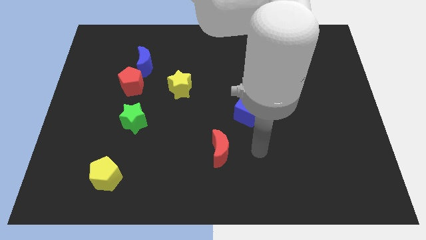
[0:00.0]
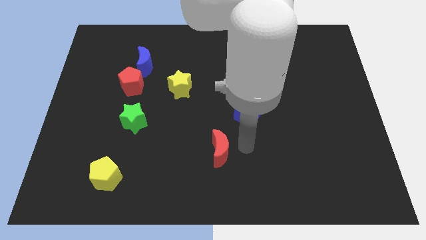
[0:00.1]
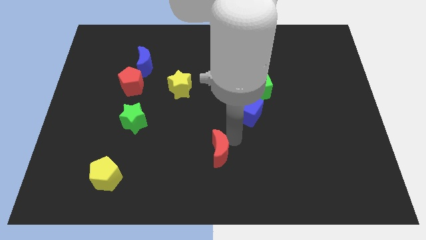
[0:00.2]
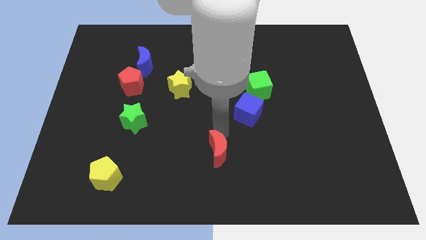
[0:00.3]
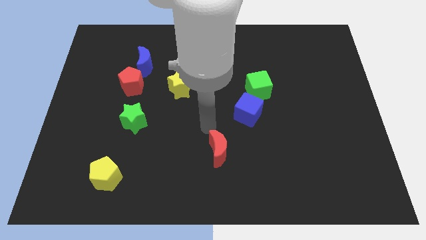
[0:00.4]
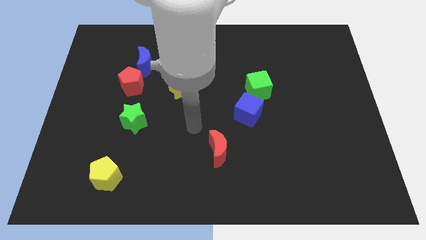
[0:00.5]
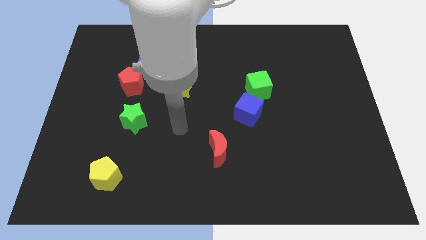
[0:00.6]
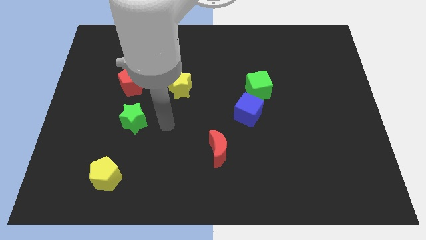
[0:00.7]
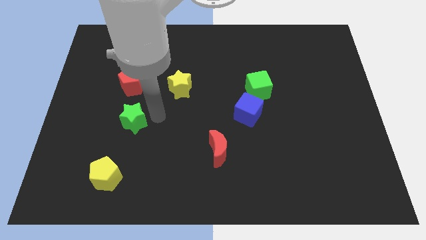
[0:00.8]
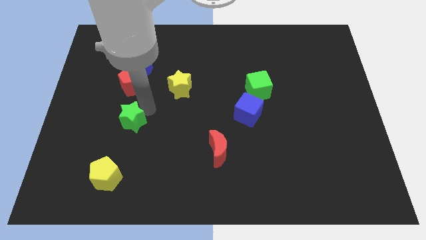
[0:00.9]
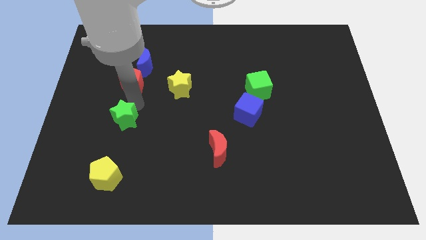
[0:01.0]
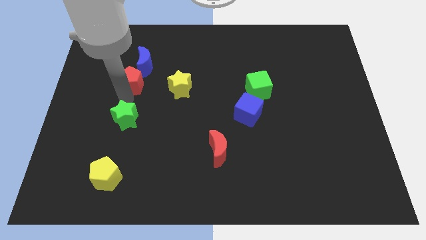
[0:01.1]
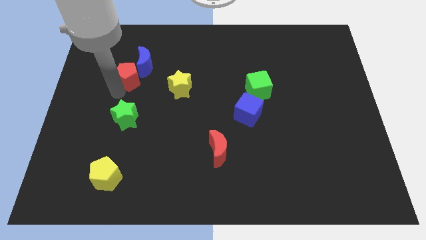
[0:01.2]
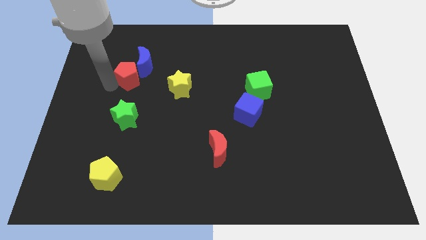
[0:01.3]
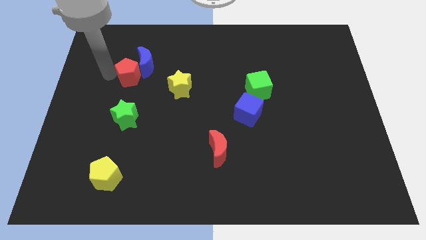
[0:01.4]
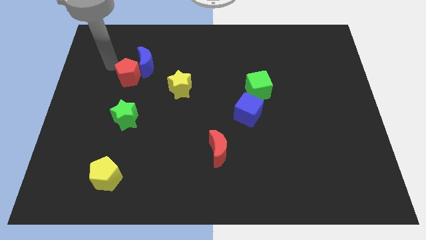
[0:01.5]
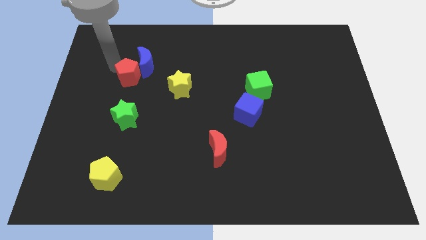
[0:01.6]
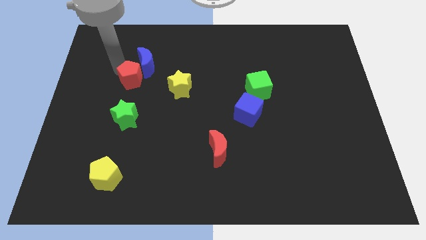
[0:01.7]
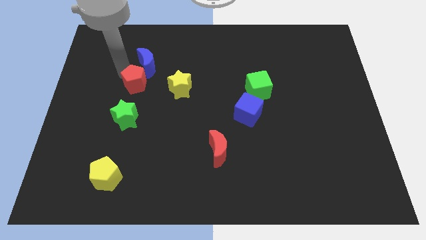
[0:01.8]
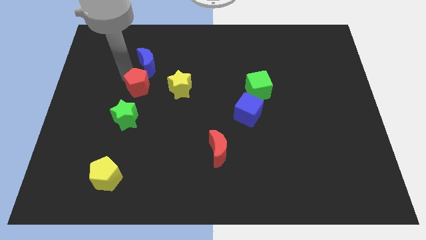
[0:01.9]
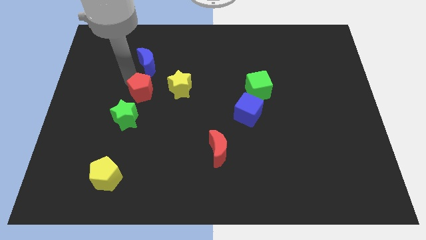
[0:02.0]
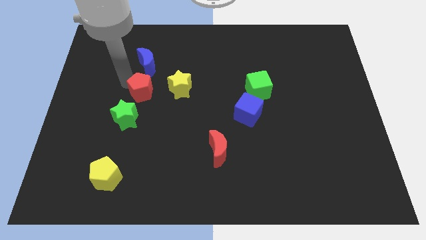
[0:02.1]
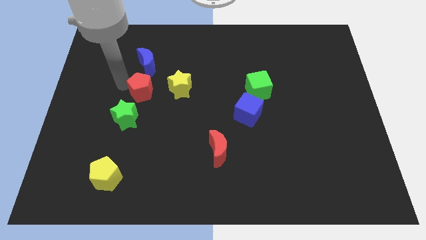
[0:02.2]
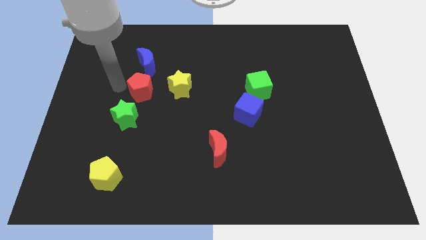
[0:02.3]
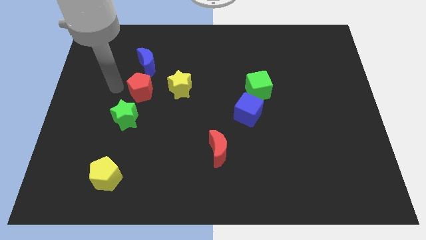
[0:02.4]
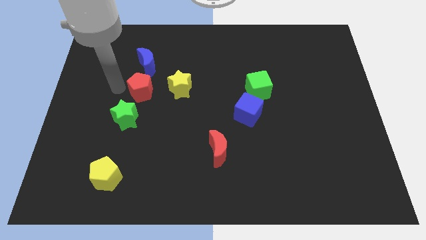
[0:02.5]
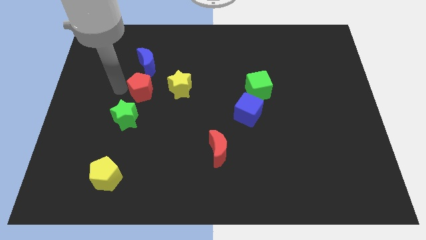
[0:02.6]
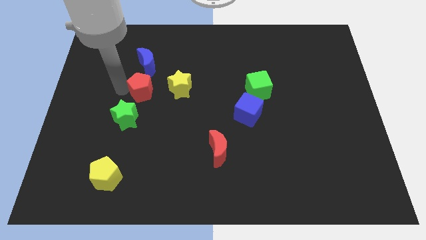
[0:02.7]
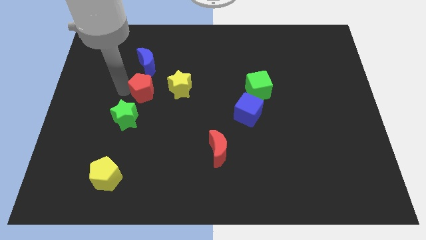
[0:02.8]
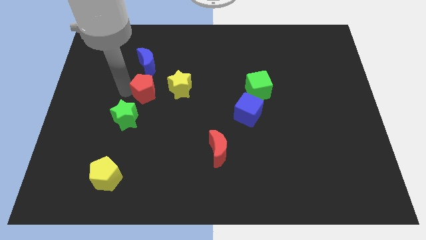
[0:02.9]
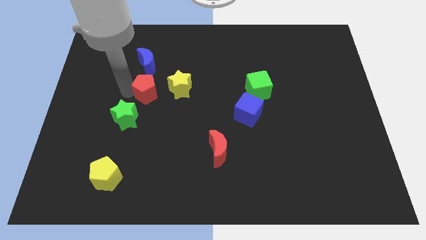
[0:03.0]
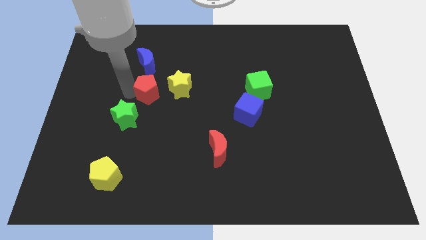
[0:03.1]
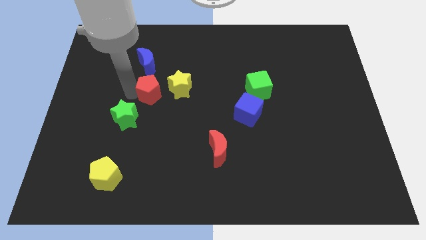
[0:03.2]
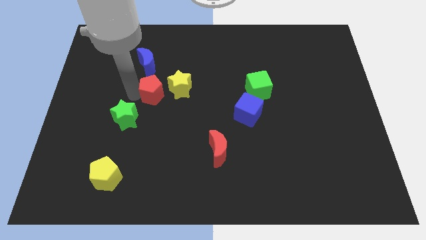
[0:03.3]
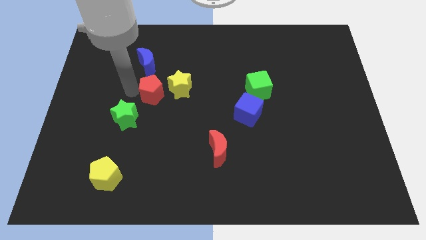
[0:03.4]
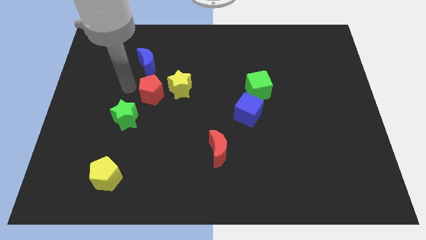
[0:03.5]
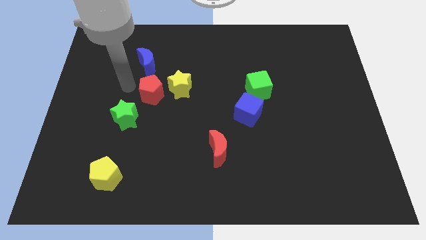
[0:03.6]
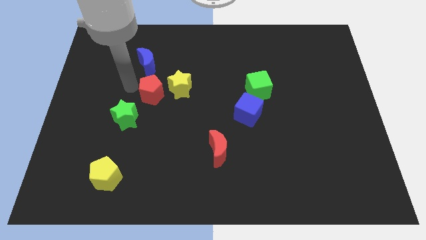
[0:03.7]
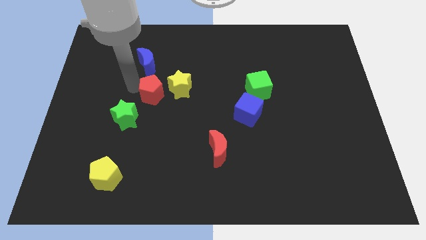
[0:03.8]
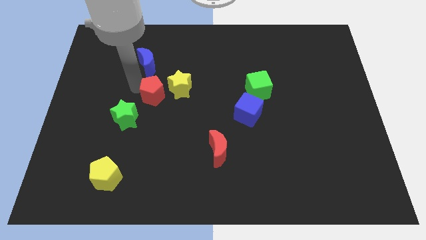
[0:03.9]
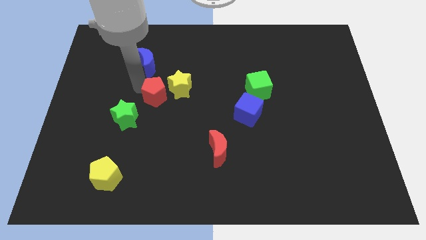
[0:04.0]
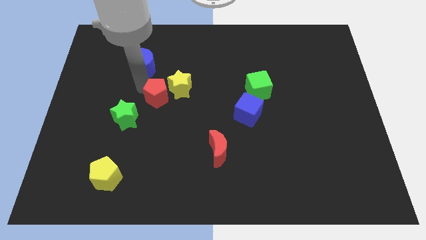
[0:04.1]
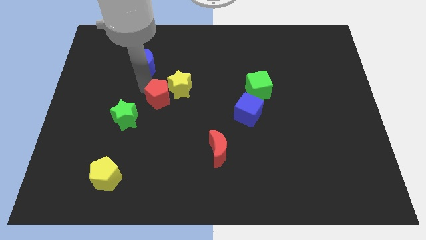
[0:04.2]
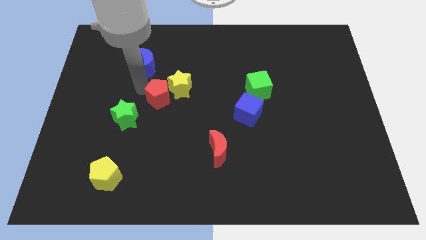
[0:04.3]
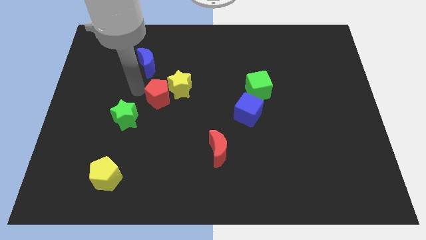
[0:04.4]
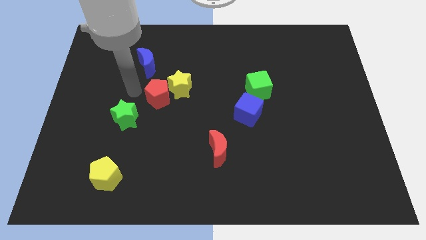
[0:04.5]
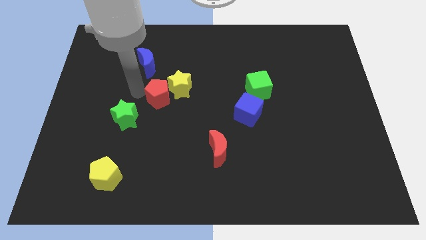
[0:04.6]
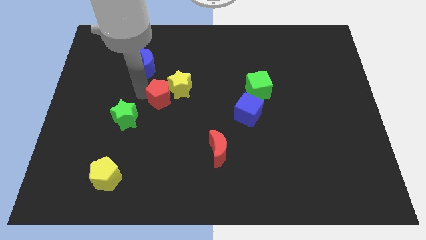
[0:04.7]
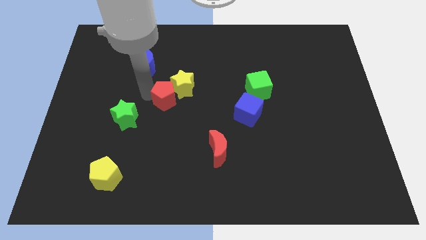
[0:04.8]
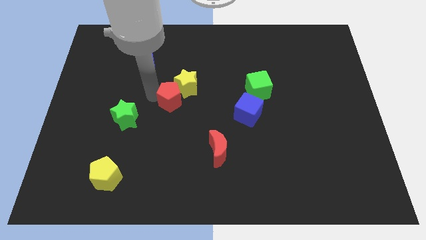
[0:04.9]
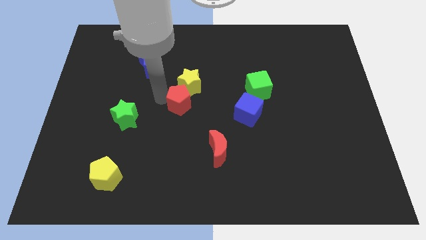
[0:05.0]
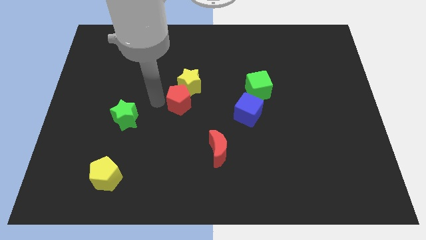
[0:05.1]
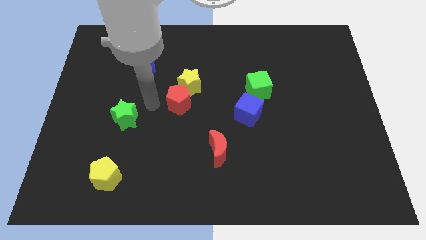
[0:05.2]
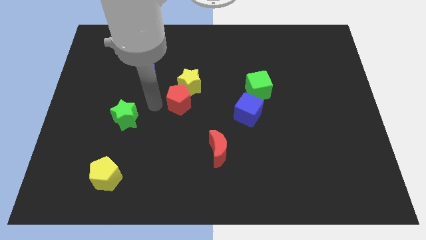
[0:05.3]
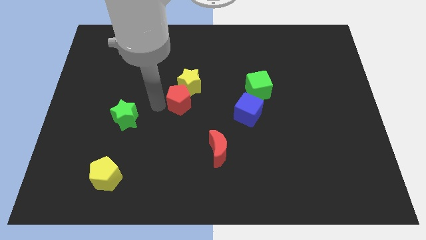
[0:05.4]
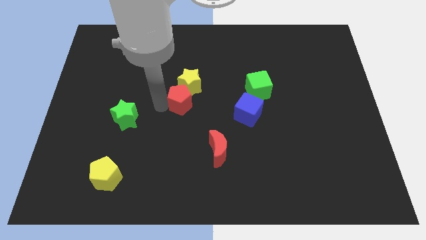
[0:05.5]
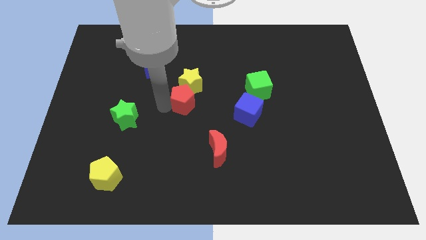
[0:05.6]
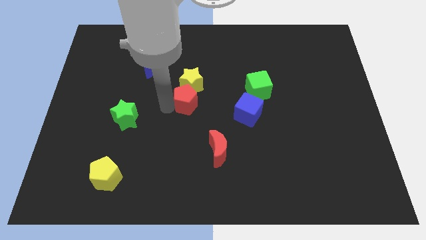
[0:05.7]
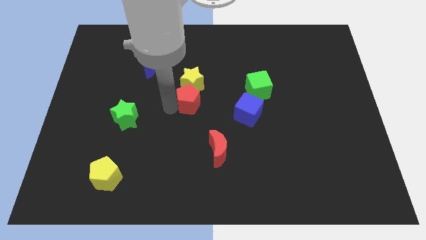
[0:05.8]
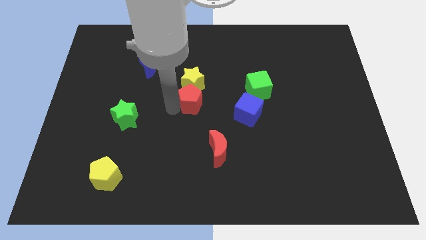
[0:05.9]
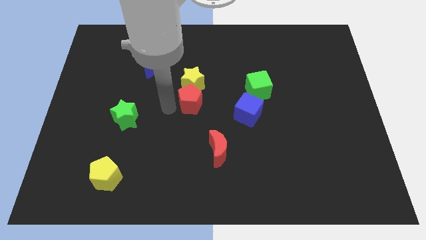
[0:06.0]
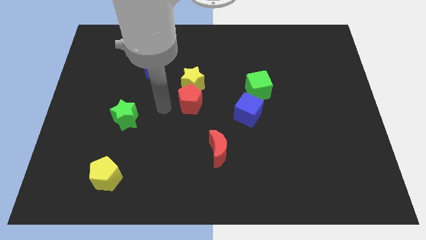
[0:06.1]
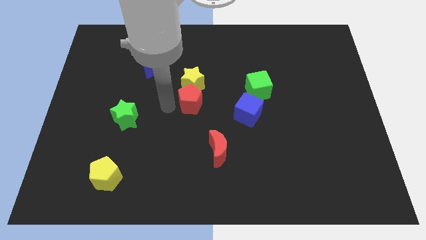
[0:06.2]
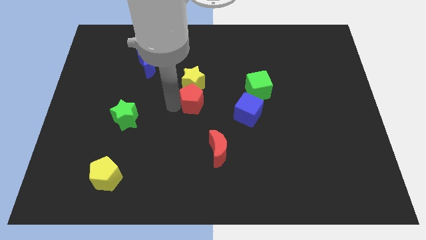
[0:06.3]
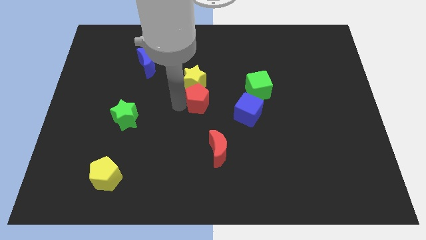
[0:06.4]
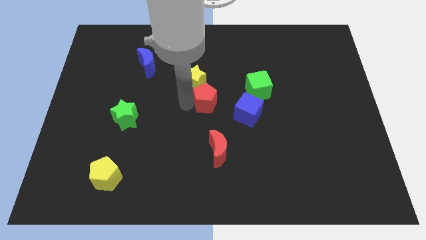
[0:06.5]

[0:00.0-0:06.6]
slide the red pentagon to the top left of the blue cube
